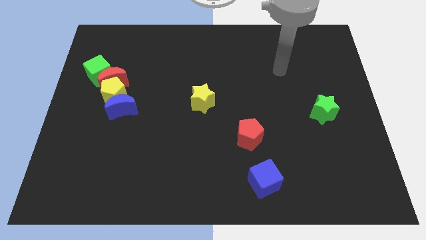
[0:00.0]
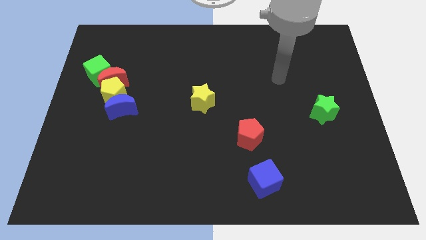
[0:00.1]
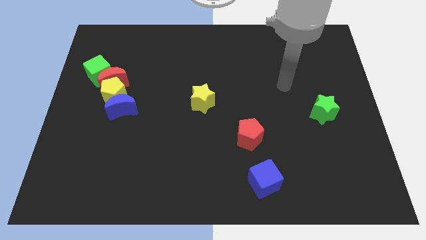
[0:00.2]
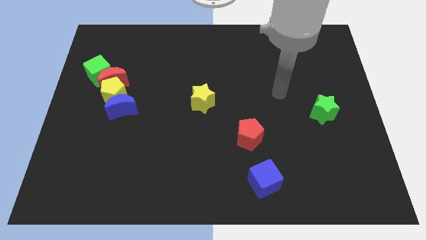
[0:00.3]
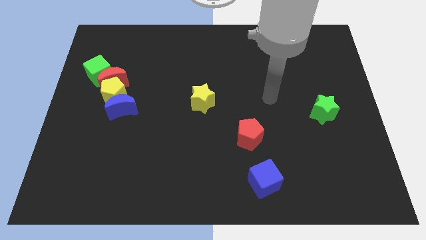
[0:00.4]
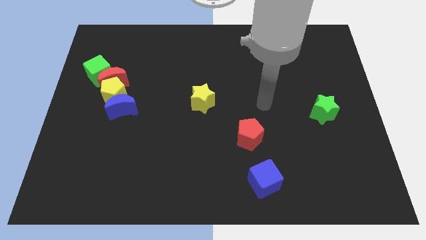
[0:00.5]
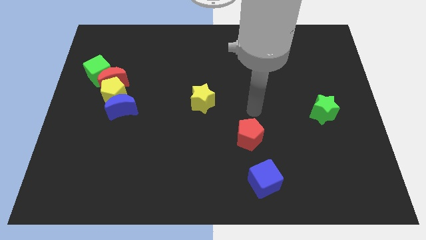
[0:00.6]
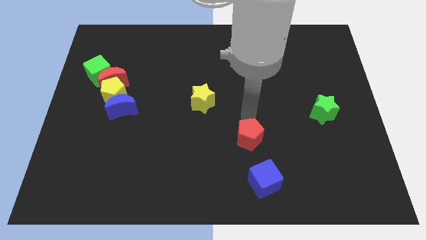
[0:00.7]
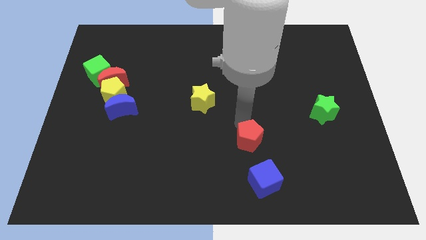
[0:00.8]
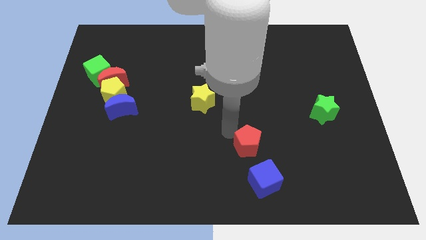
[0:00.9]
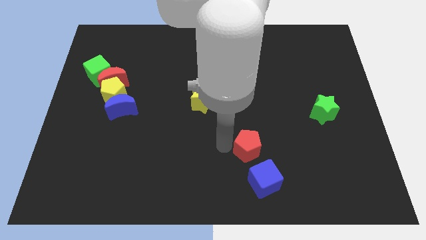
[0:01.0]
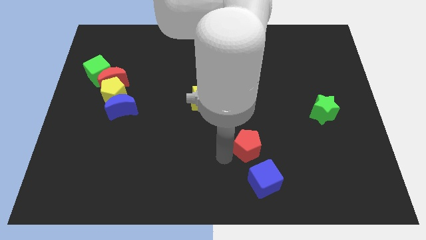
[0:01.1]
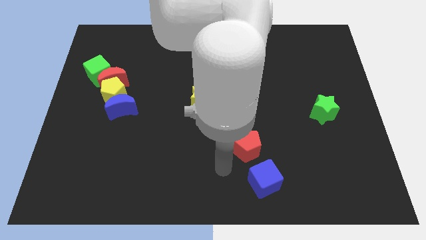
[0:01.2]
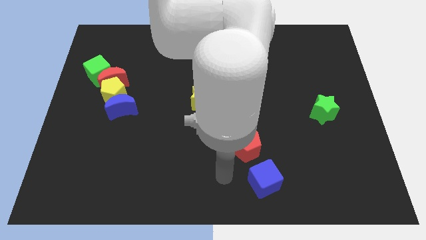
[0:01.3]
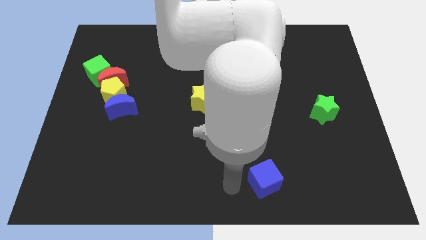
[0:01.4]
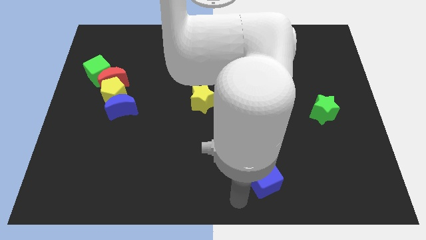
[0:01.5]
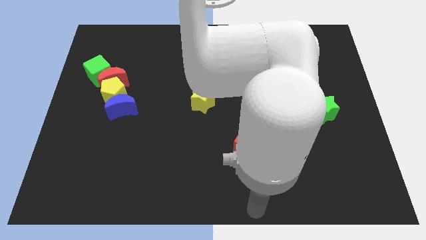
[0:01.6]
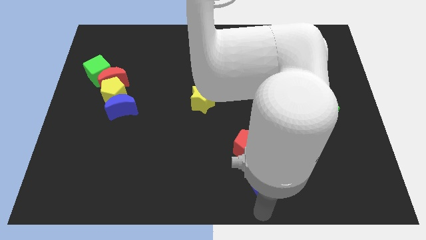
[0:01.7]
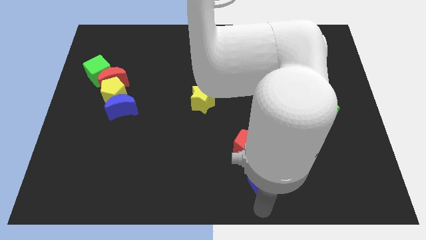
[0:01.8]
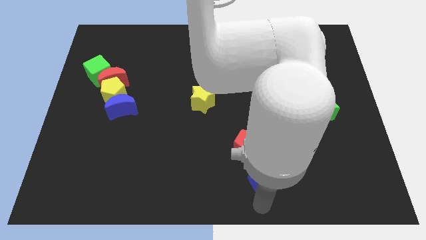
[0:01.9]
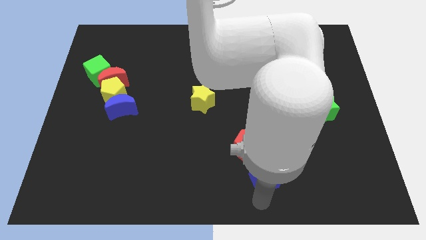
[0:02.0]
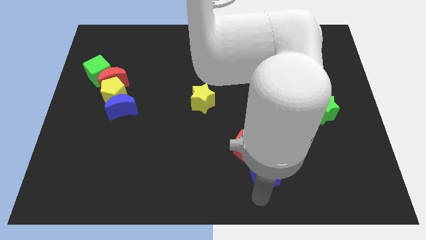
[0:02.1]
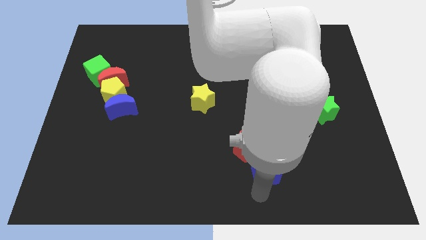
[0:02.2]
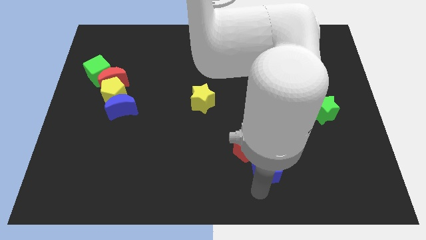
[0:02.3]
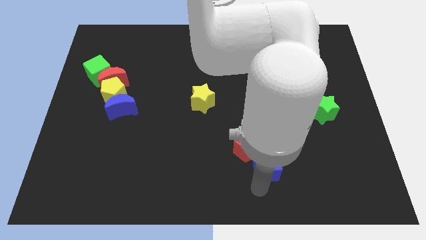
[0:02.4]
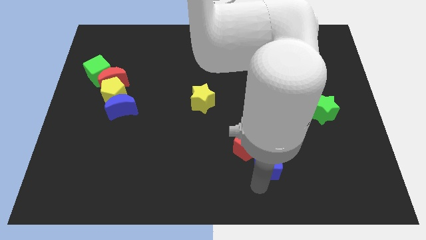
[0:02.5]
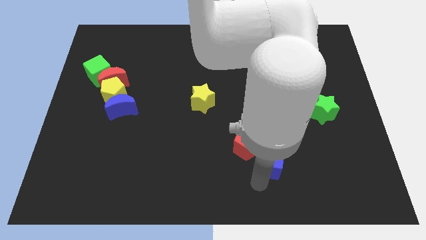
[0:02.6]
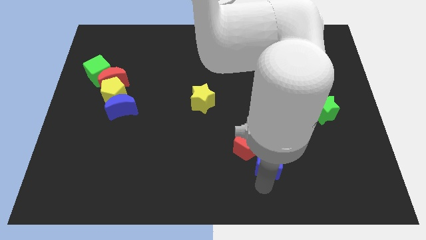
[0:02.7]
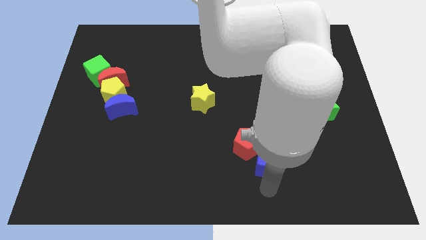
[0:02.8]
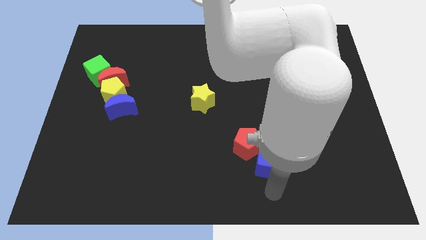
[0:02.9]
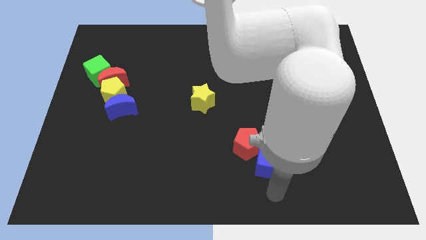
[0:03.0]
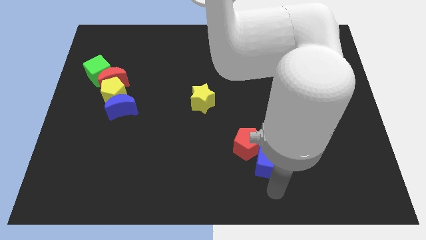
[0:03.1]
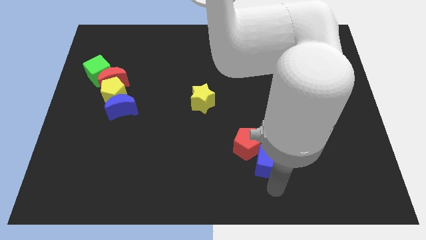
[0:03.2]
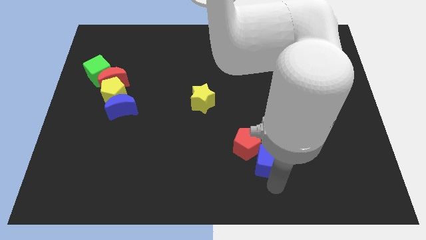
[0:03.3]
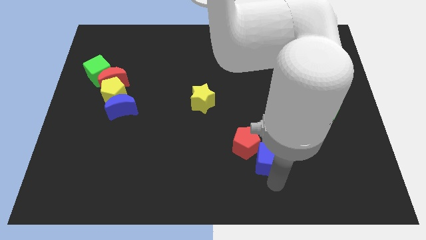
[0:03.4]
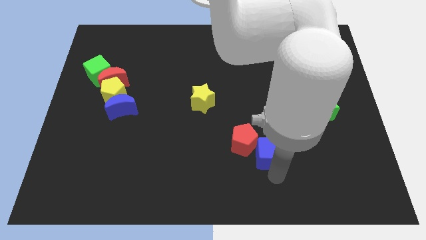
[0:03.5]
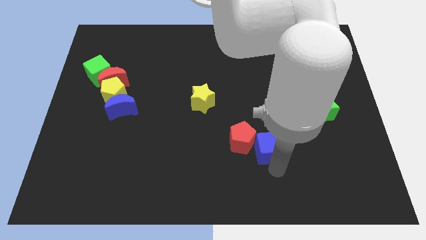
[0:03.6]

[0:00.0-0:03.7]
push the blue cube a little bit up

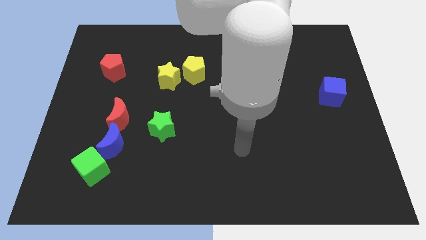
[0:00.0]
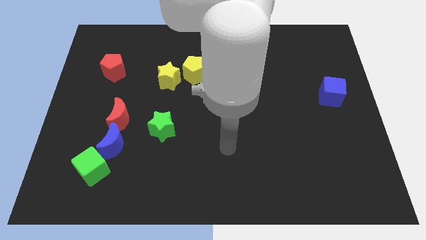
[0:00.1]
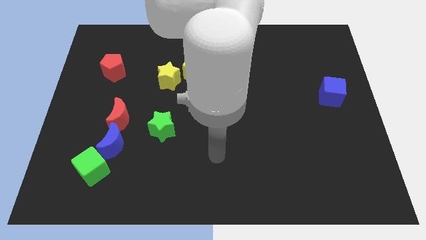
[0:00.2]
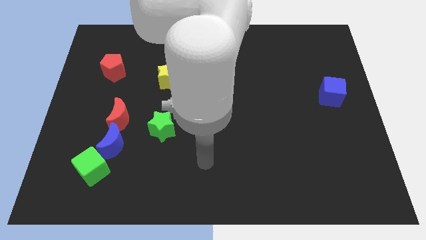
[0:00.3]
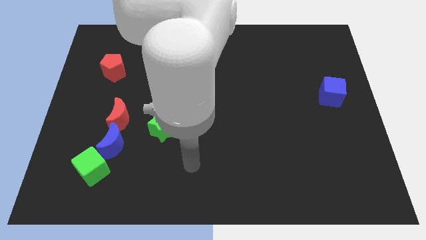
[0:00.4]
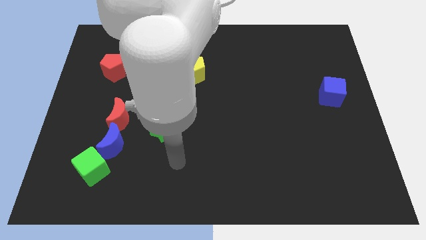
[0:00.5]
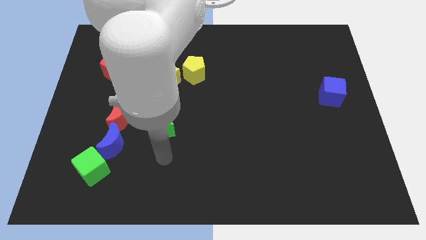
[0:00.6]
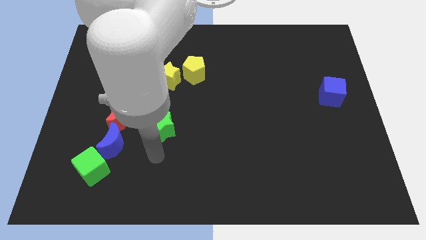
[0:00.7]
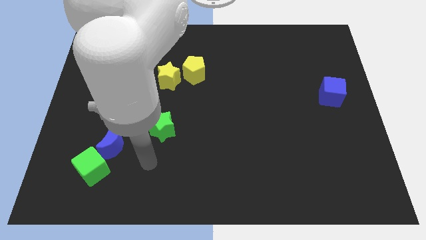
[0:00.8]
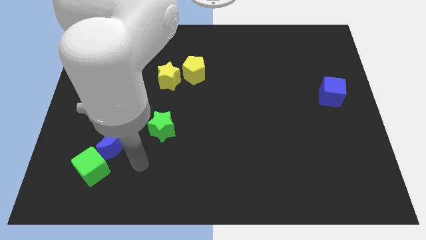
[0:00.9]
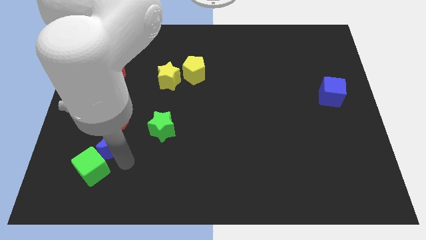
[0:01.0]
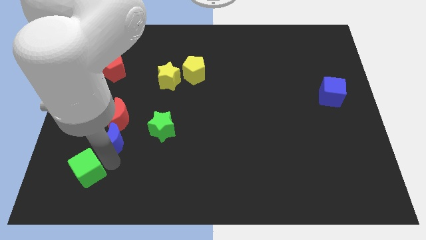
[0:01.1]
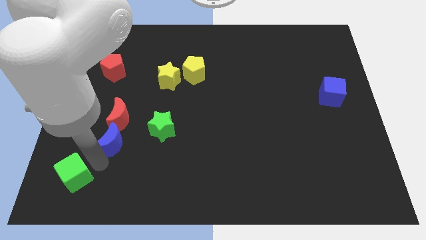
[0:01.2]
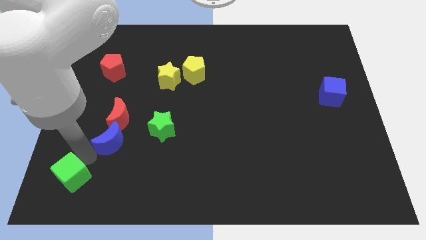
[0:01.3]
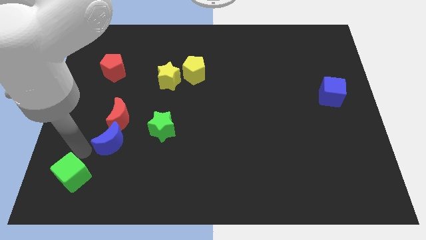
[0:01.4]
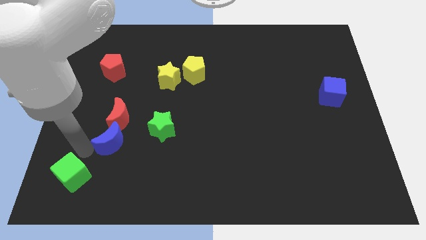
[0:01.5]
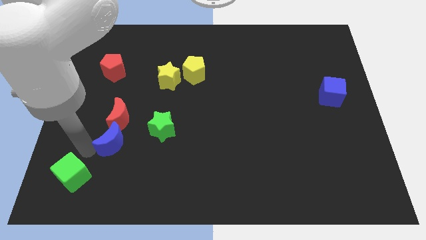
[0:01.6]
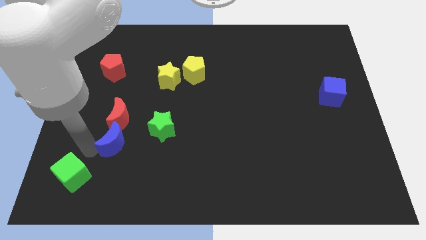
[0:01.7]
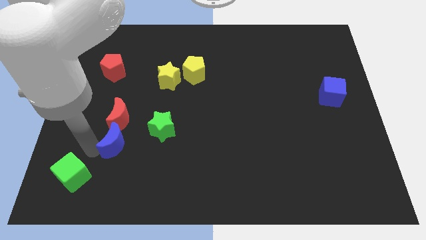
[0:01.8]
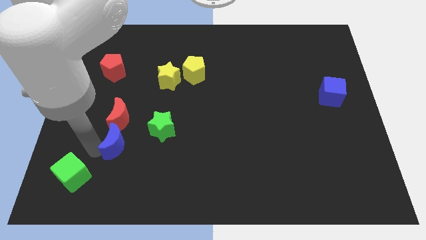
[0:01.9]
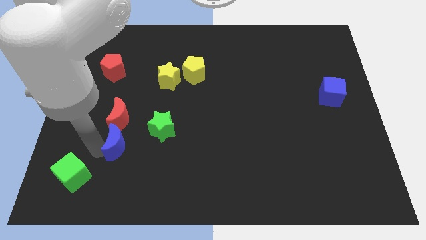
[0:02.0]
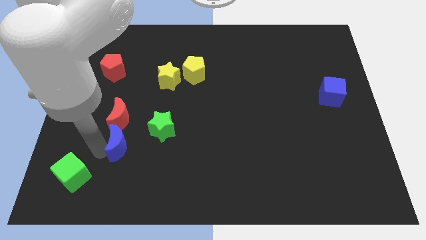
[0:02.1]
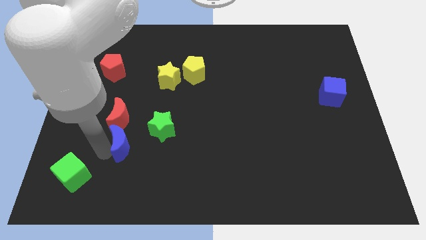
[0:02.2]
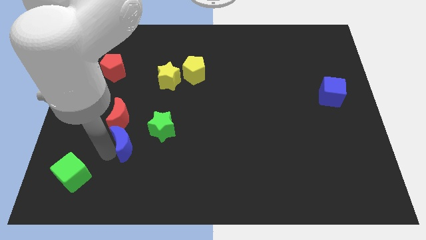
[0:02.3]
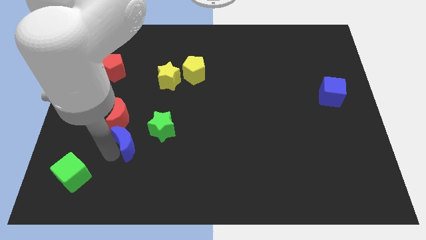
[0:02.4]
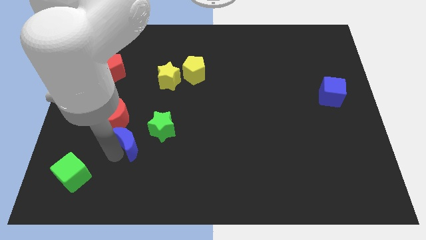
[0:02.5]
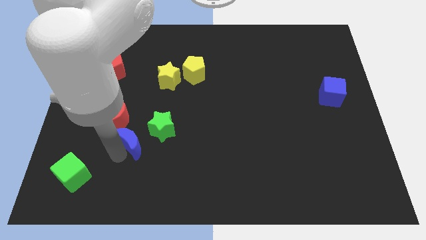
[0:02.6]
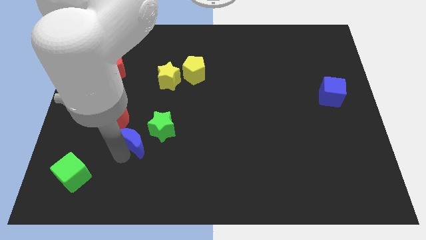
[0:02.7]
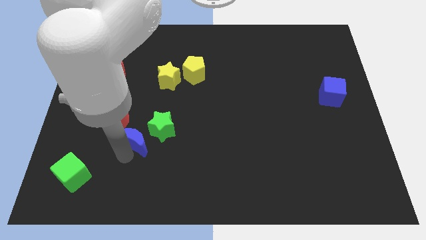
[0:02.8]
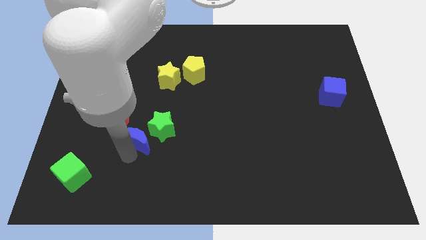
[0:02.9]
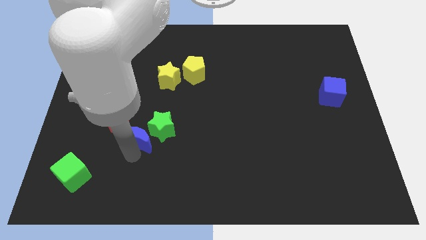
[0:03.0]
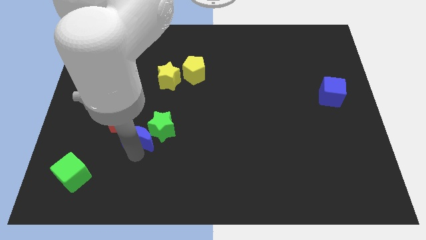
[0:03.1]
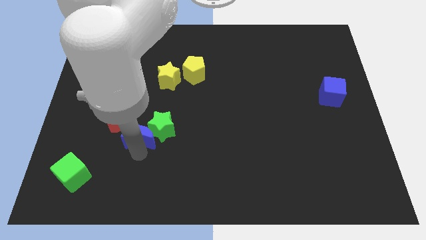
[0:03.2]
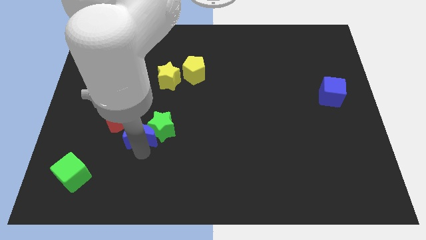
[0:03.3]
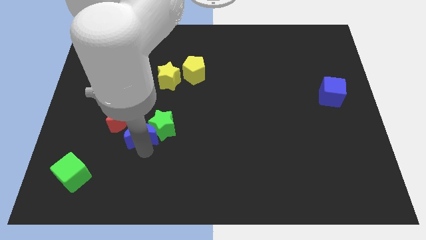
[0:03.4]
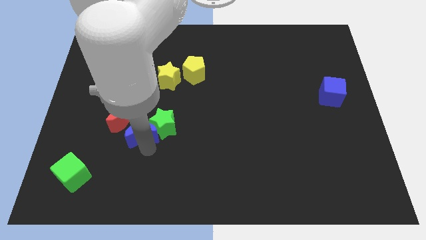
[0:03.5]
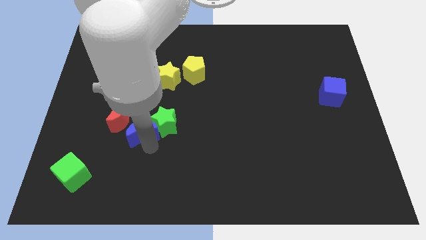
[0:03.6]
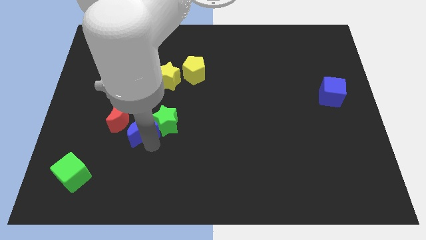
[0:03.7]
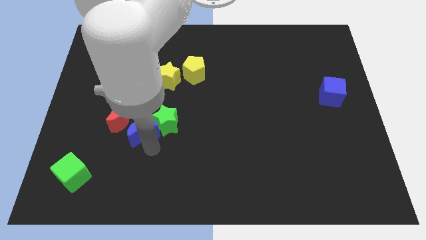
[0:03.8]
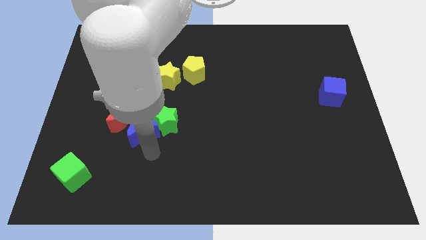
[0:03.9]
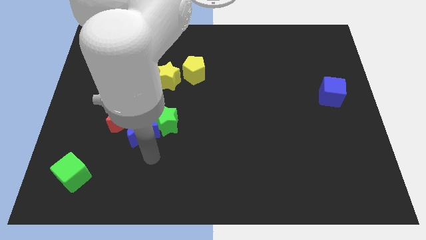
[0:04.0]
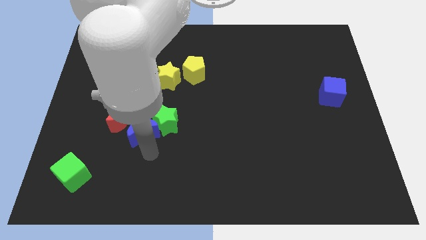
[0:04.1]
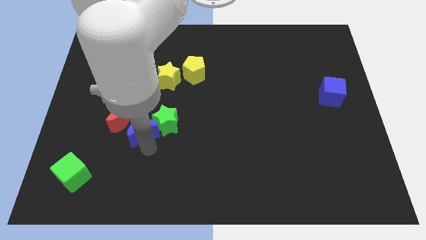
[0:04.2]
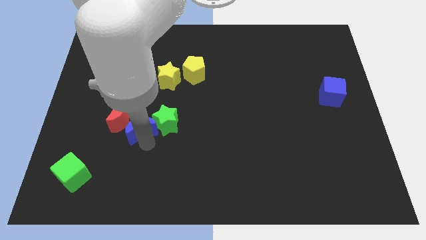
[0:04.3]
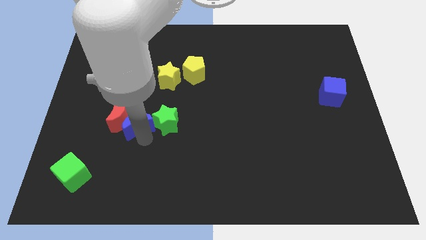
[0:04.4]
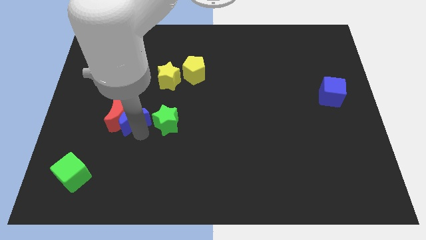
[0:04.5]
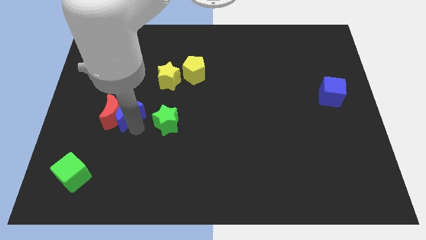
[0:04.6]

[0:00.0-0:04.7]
move the blue moon a little bit up
